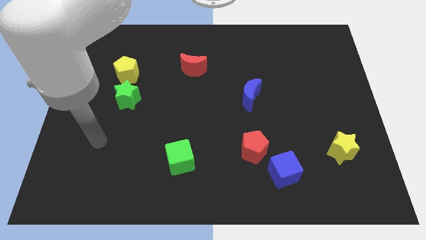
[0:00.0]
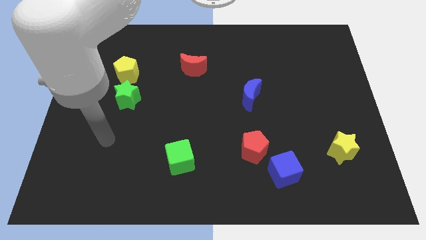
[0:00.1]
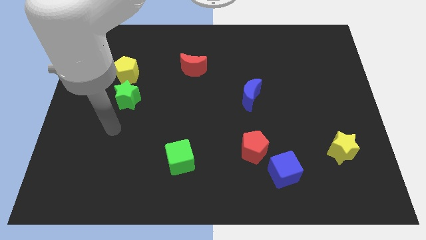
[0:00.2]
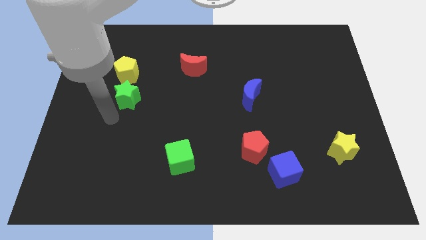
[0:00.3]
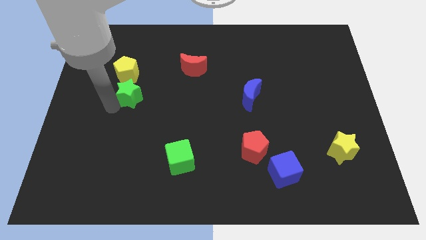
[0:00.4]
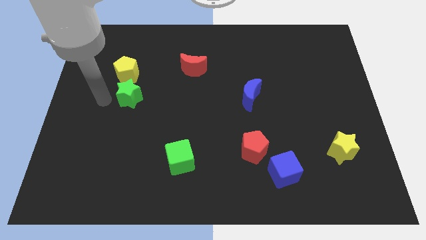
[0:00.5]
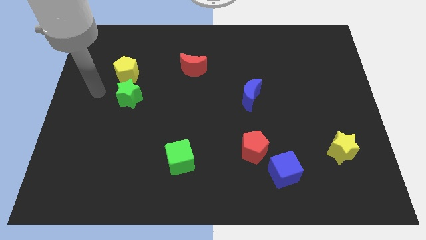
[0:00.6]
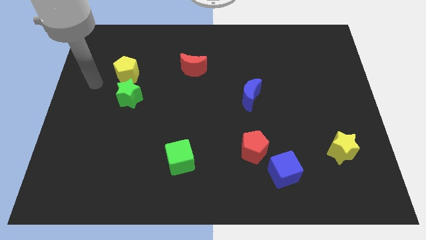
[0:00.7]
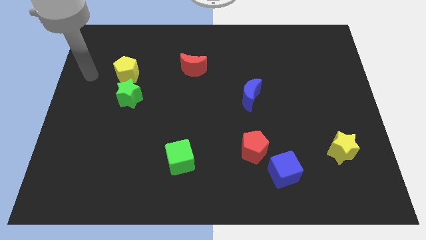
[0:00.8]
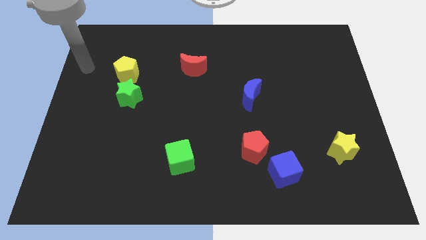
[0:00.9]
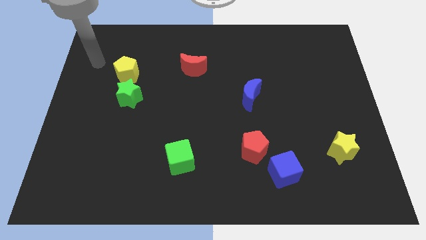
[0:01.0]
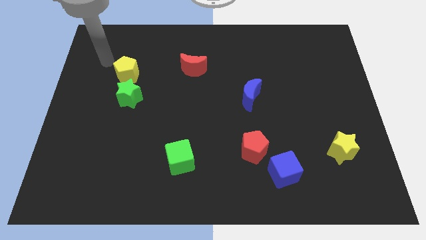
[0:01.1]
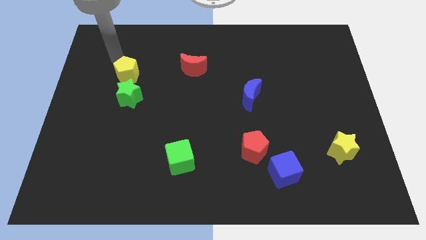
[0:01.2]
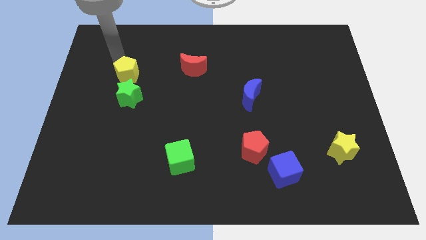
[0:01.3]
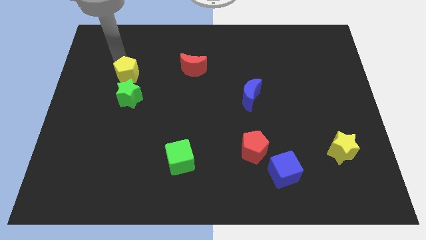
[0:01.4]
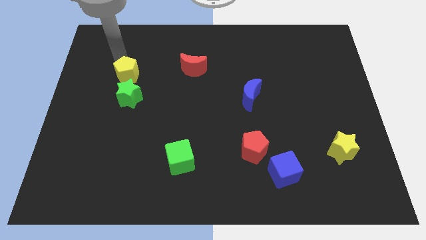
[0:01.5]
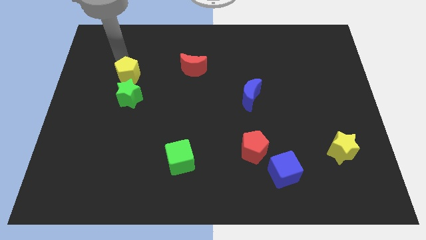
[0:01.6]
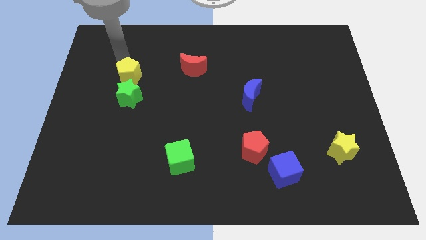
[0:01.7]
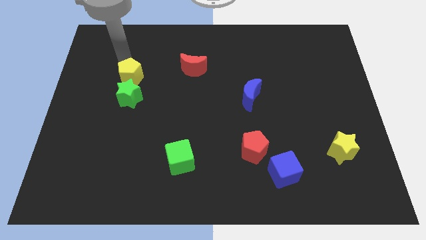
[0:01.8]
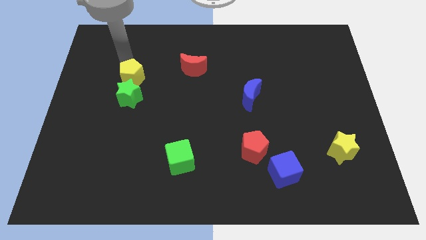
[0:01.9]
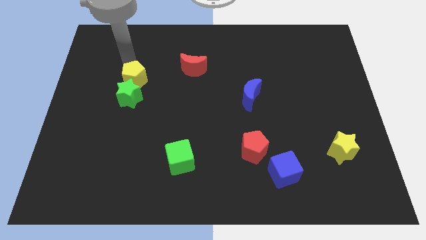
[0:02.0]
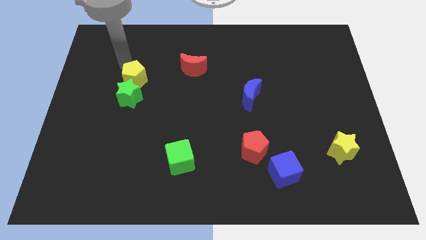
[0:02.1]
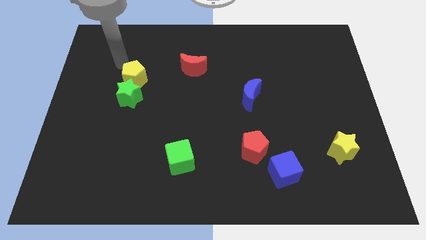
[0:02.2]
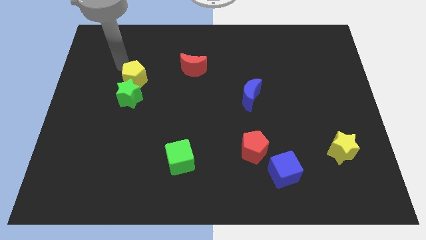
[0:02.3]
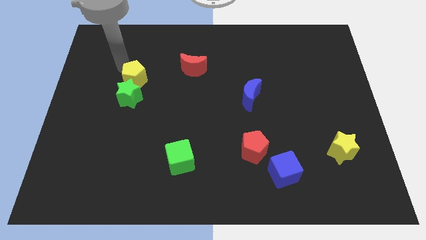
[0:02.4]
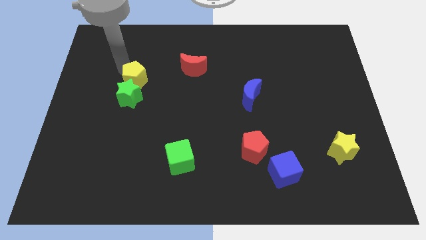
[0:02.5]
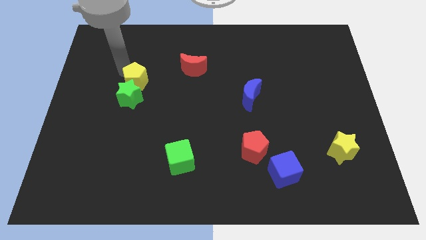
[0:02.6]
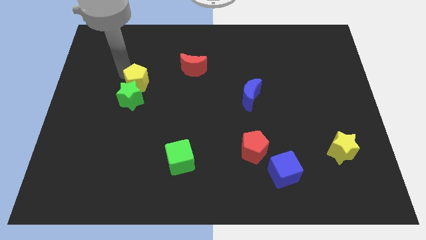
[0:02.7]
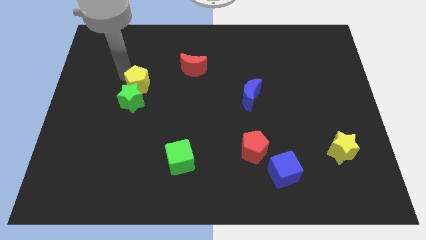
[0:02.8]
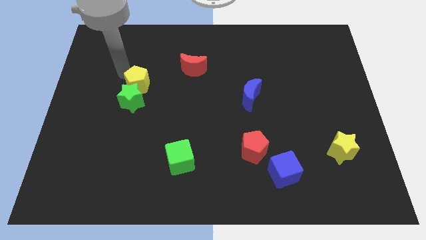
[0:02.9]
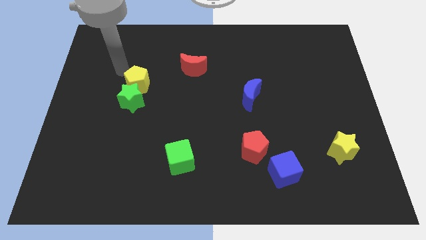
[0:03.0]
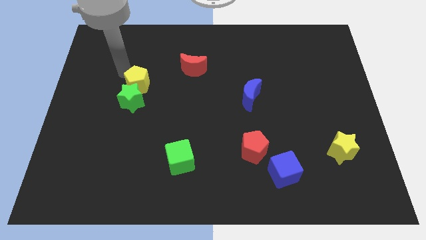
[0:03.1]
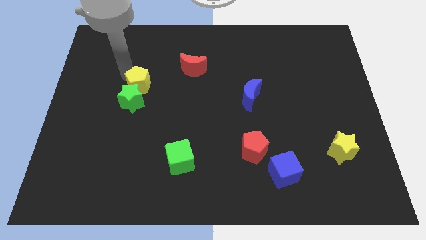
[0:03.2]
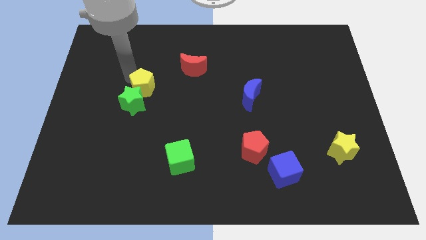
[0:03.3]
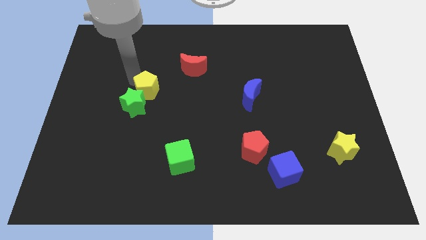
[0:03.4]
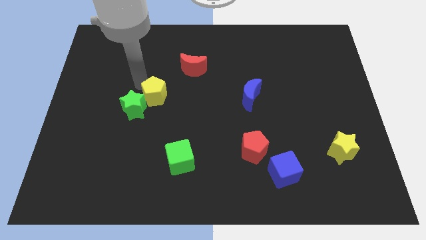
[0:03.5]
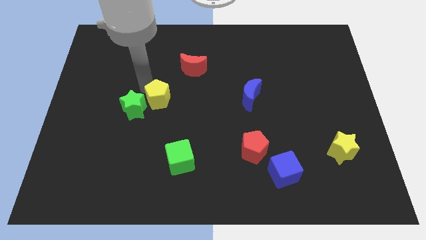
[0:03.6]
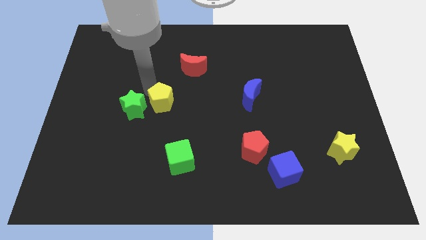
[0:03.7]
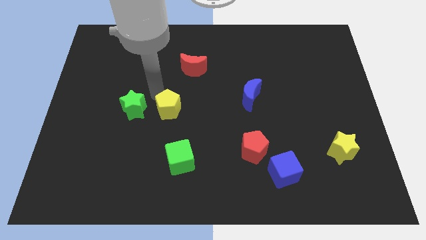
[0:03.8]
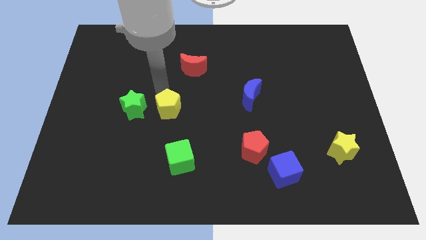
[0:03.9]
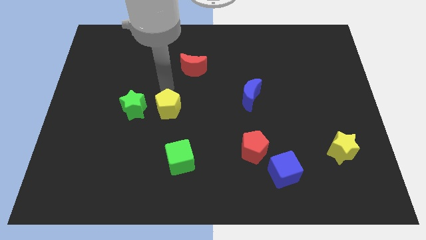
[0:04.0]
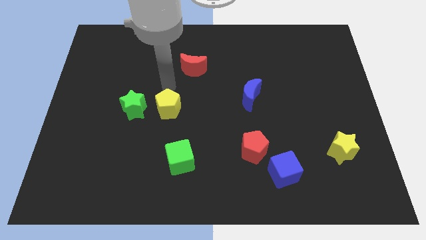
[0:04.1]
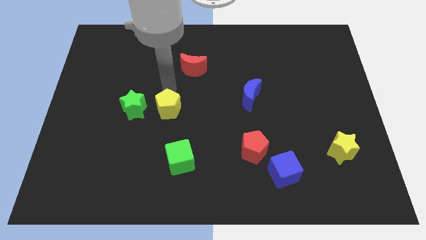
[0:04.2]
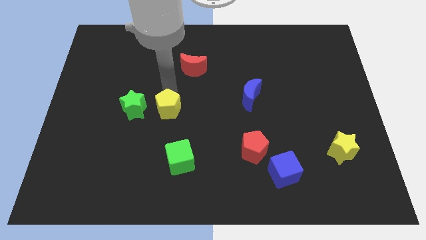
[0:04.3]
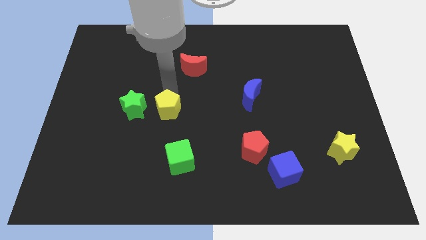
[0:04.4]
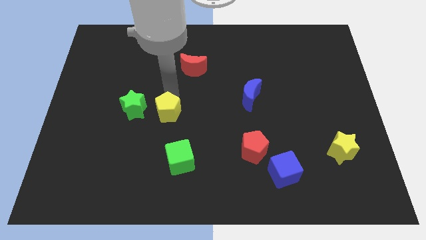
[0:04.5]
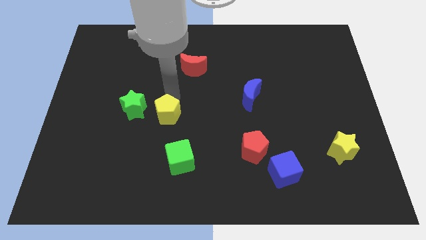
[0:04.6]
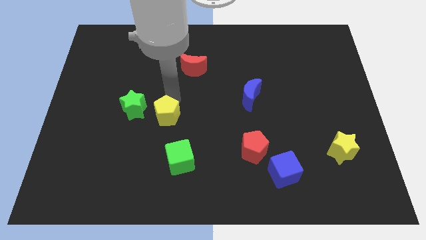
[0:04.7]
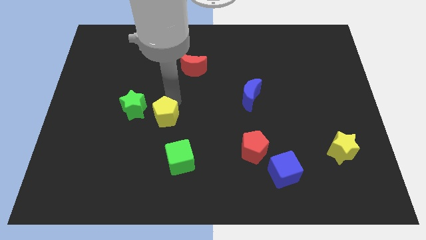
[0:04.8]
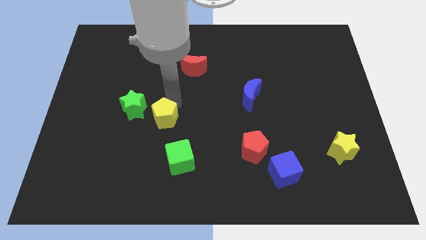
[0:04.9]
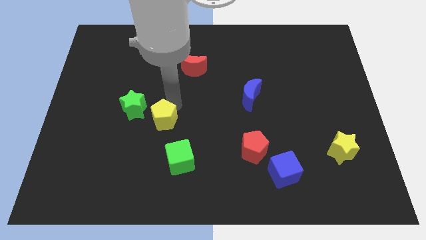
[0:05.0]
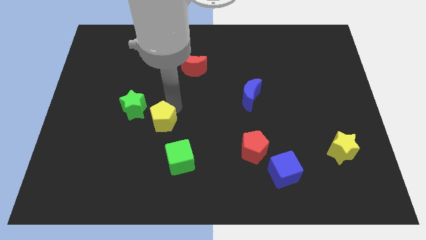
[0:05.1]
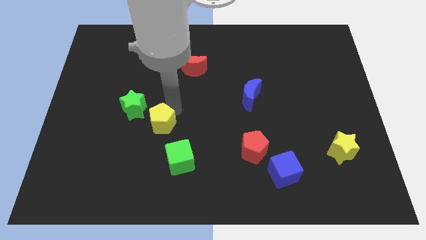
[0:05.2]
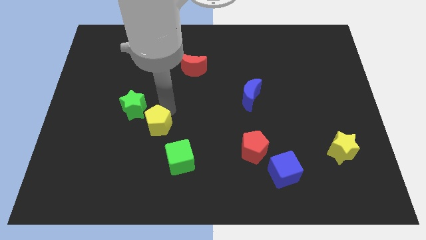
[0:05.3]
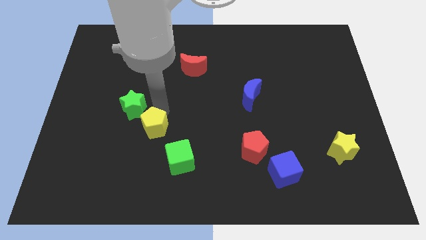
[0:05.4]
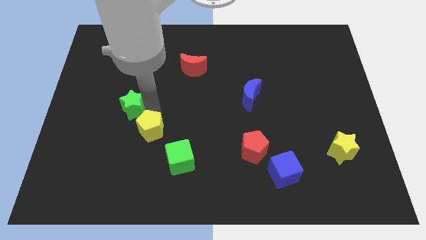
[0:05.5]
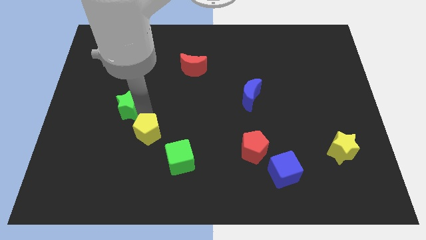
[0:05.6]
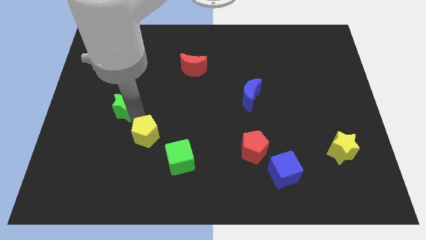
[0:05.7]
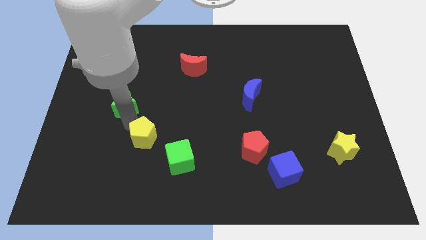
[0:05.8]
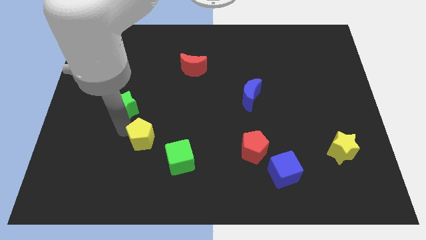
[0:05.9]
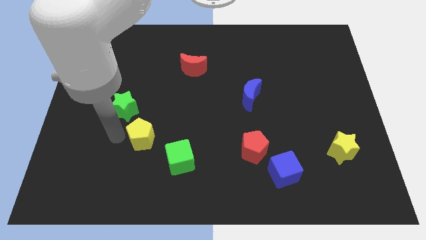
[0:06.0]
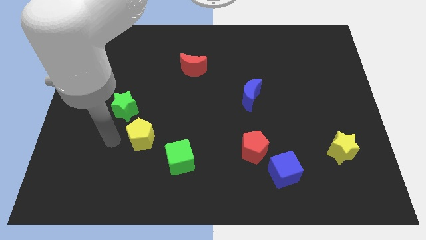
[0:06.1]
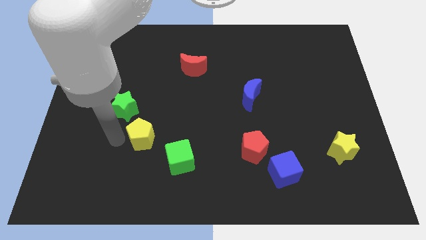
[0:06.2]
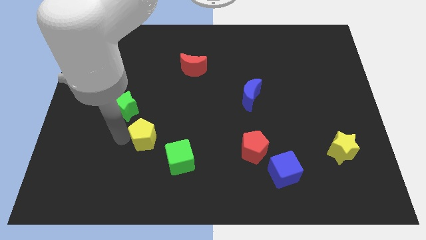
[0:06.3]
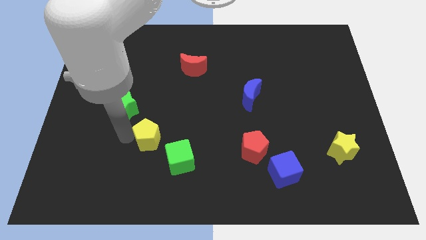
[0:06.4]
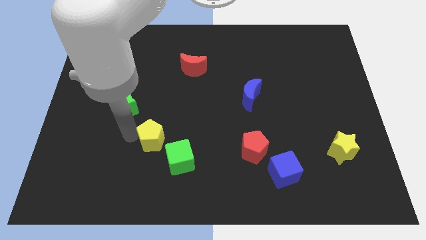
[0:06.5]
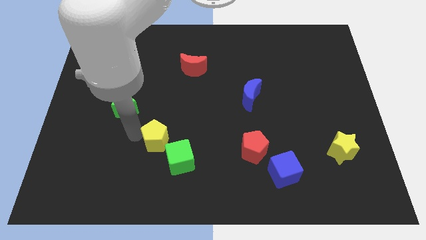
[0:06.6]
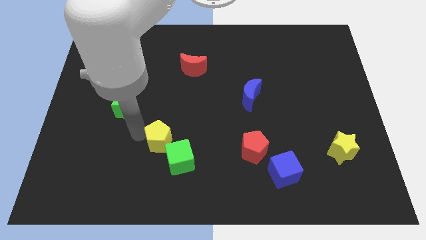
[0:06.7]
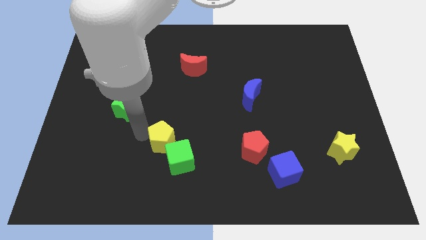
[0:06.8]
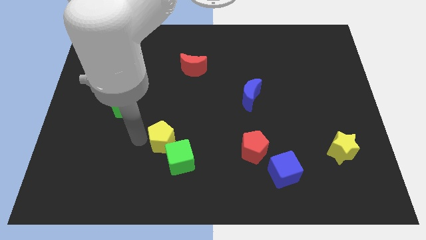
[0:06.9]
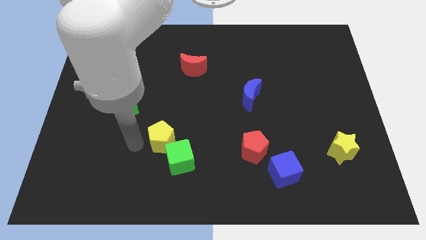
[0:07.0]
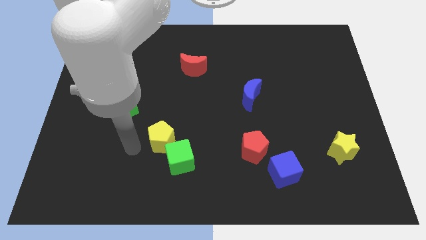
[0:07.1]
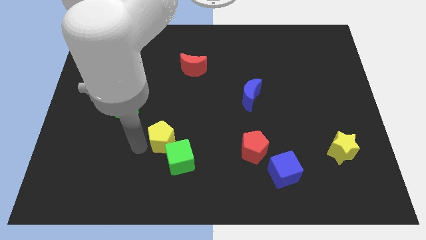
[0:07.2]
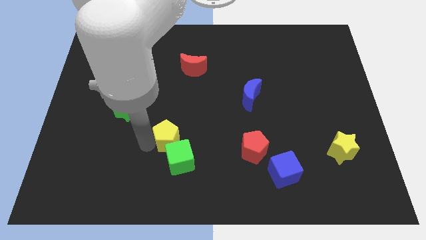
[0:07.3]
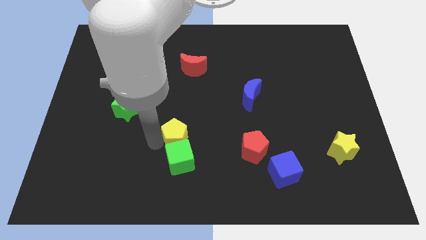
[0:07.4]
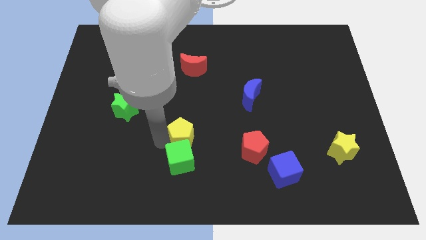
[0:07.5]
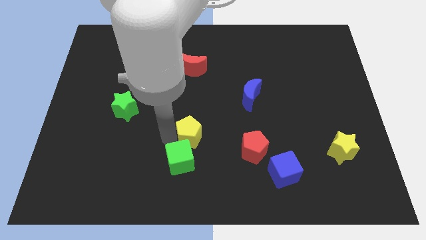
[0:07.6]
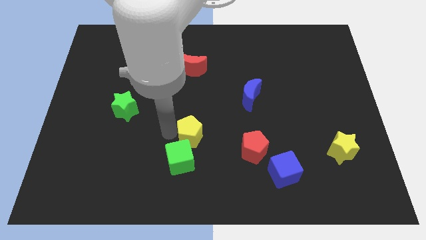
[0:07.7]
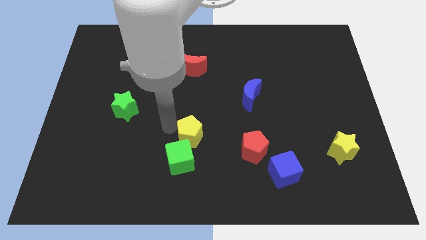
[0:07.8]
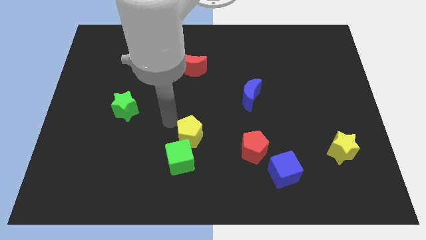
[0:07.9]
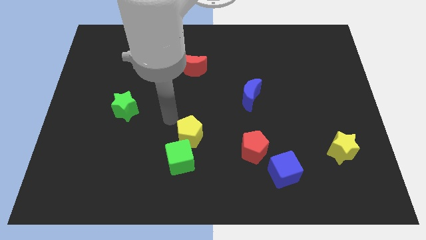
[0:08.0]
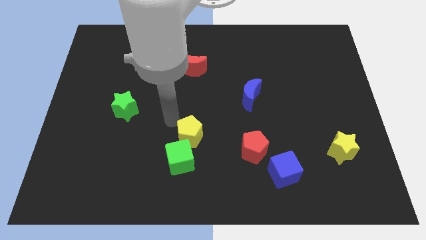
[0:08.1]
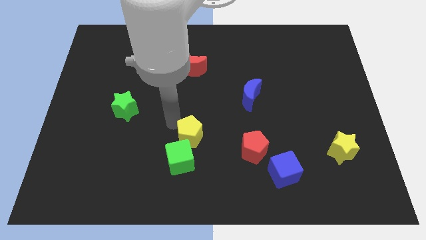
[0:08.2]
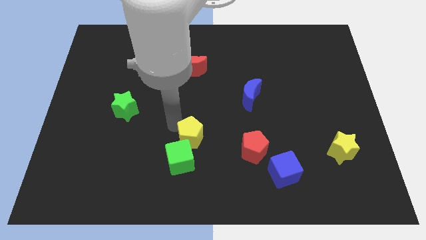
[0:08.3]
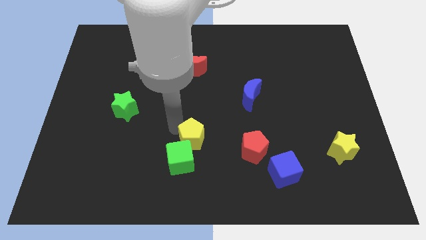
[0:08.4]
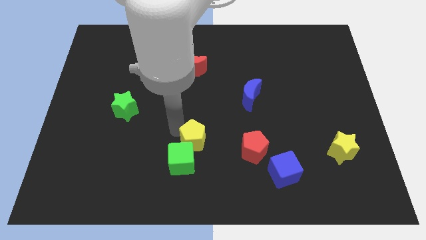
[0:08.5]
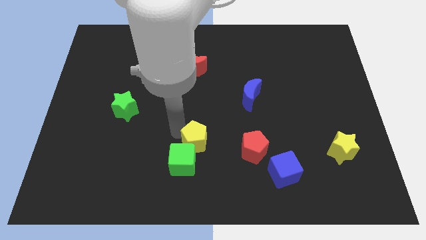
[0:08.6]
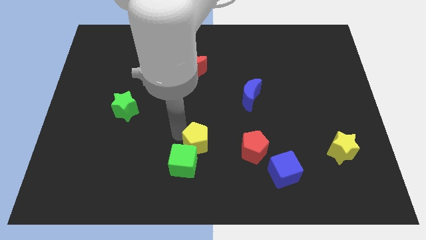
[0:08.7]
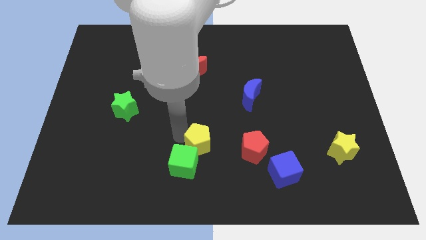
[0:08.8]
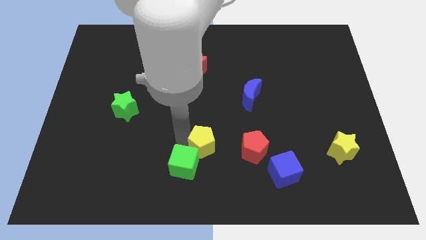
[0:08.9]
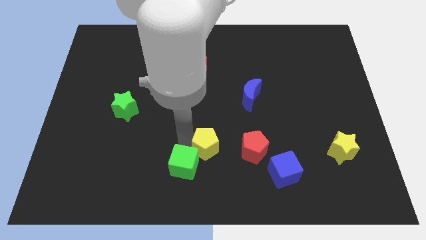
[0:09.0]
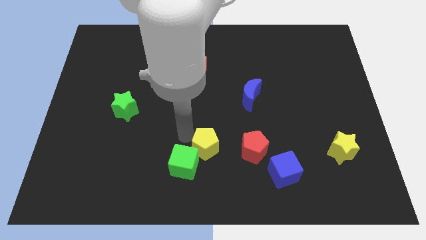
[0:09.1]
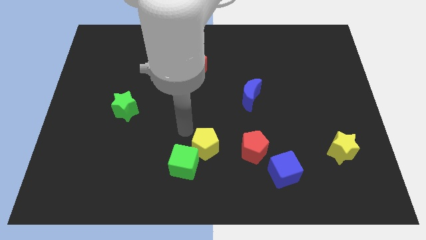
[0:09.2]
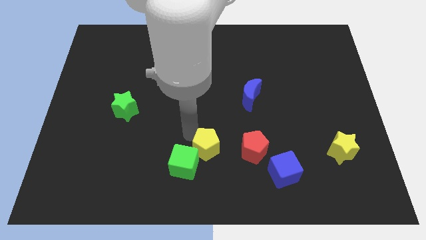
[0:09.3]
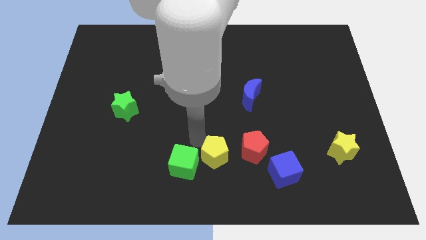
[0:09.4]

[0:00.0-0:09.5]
slide the yellow pentagon left of the blue cube
